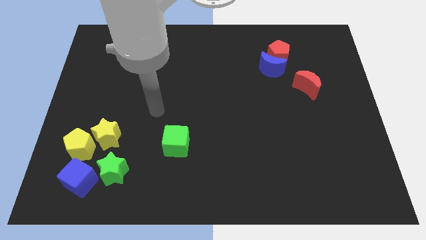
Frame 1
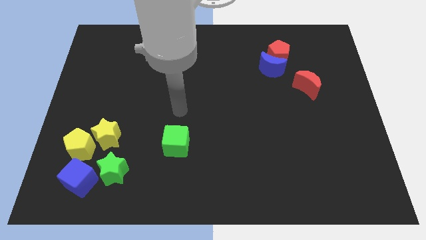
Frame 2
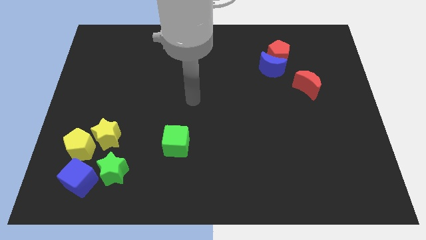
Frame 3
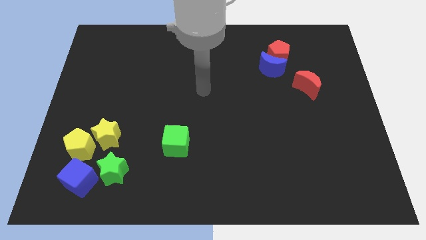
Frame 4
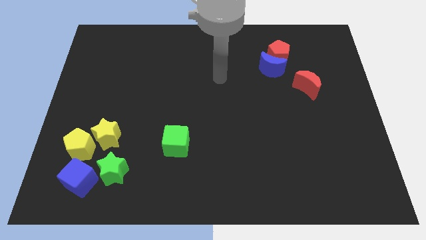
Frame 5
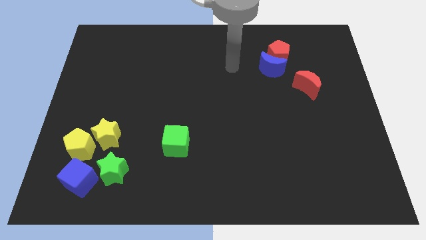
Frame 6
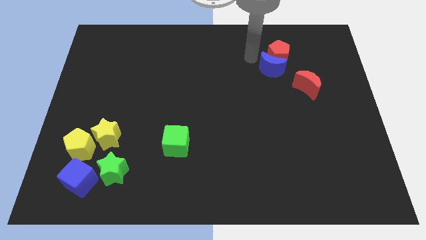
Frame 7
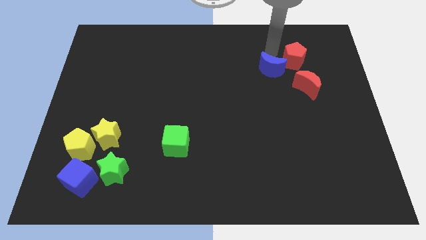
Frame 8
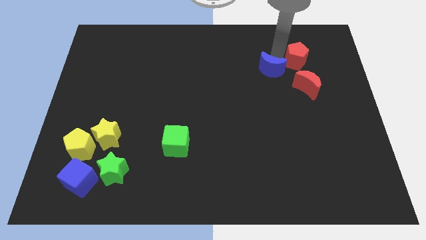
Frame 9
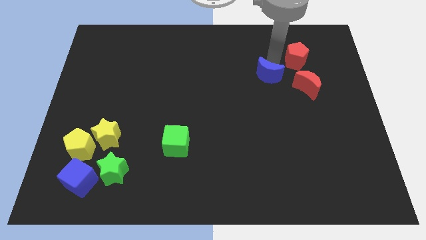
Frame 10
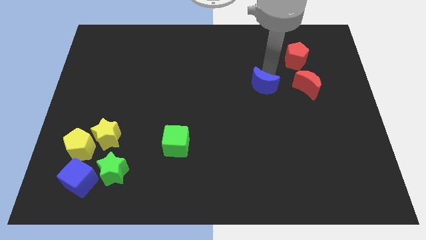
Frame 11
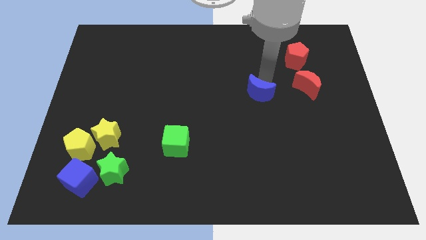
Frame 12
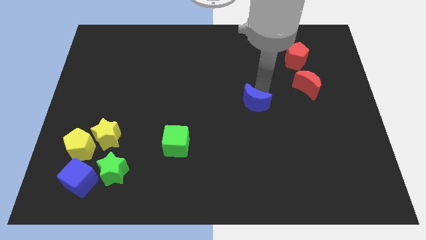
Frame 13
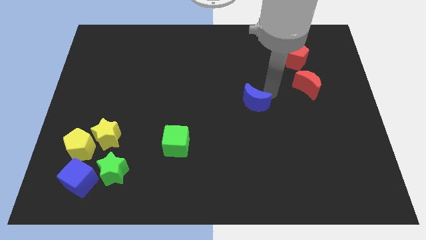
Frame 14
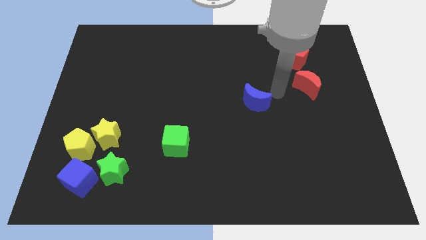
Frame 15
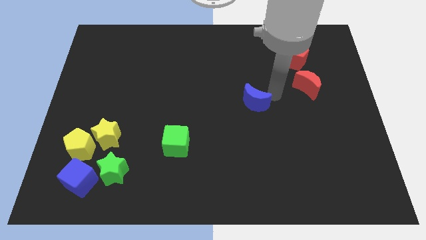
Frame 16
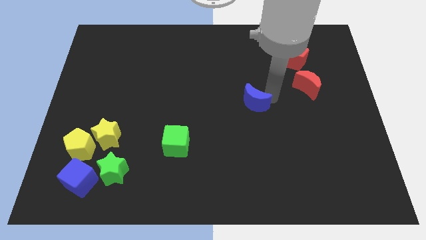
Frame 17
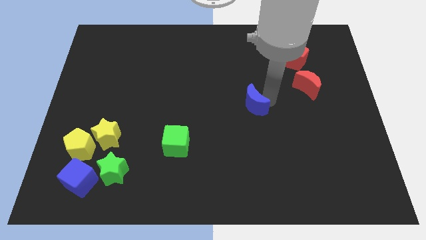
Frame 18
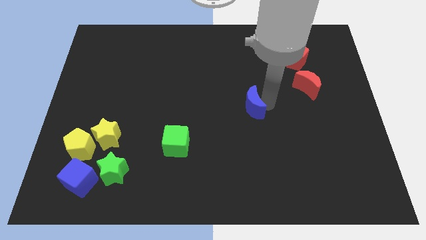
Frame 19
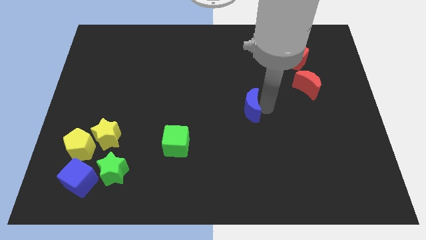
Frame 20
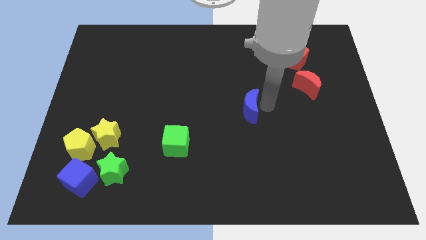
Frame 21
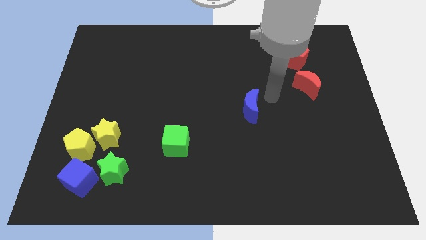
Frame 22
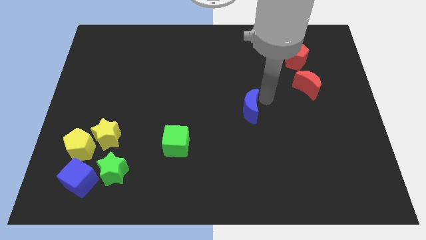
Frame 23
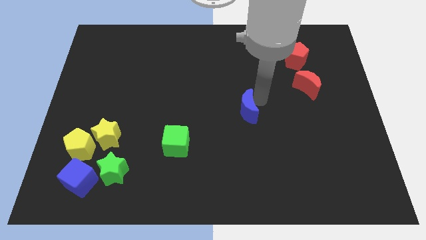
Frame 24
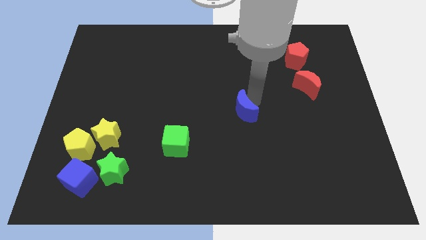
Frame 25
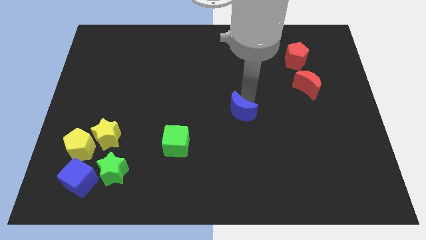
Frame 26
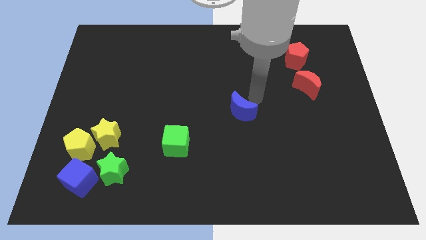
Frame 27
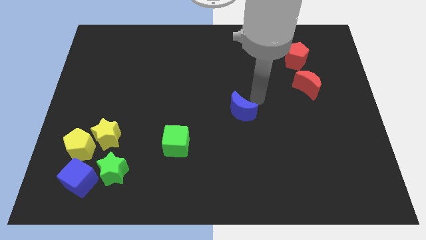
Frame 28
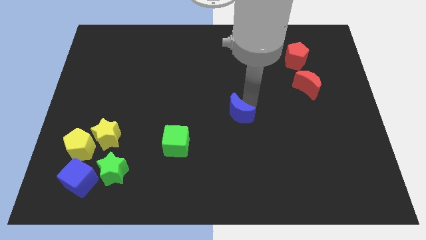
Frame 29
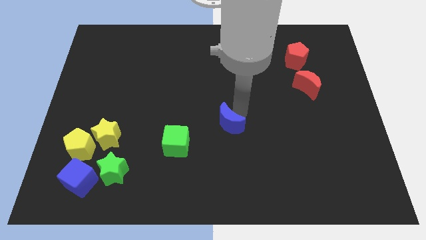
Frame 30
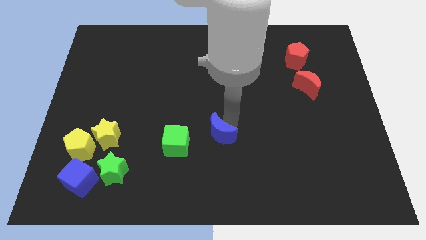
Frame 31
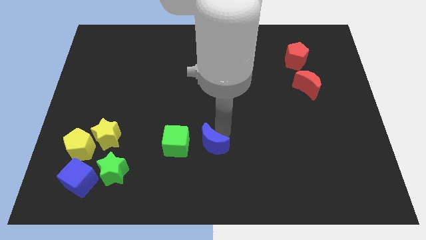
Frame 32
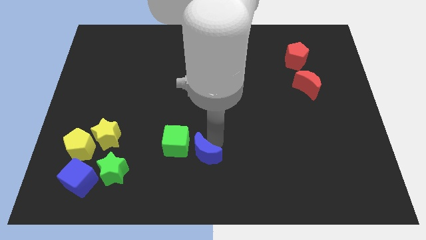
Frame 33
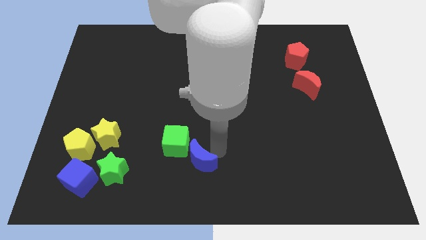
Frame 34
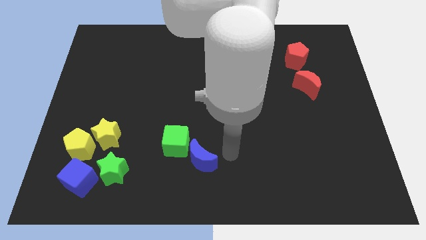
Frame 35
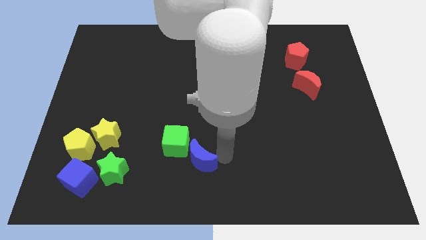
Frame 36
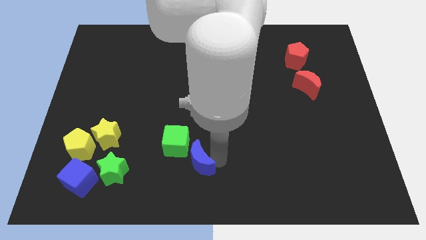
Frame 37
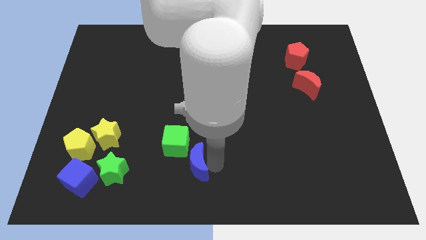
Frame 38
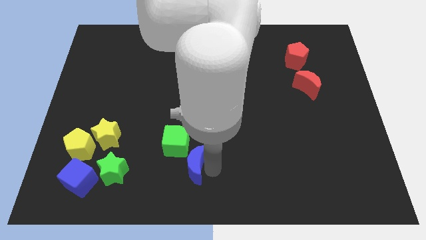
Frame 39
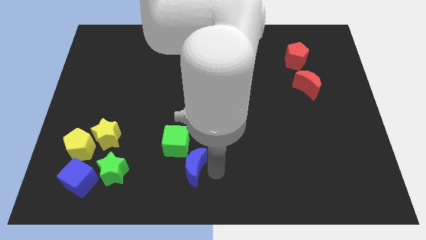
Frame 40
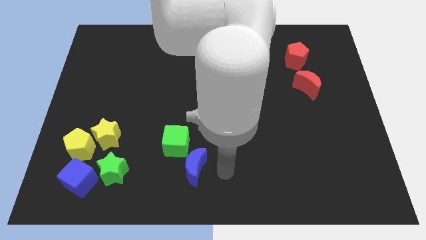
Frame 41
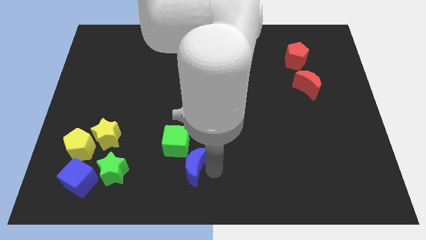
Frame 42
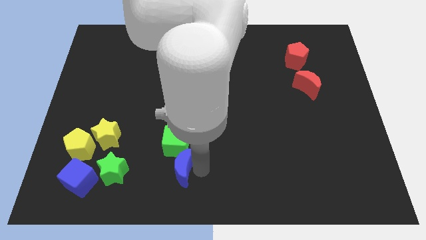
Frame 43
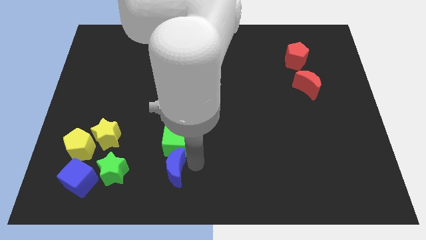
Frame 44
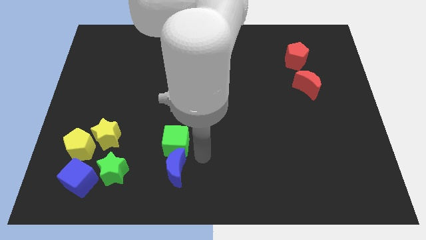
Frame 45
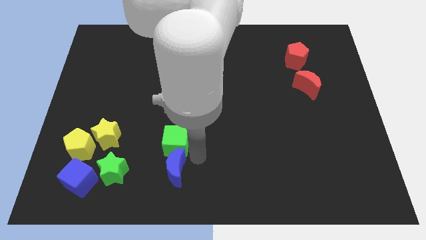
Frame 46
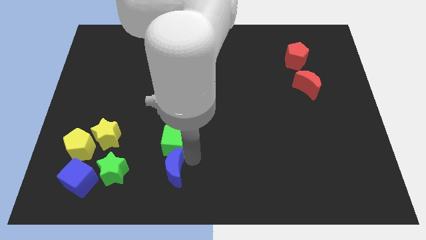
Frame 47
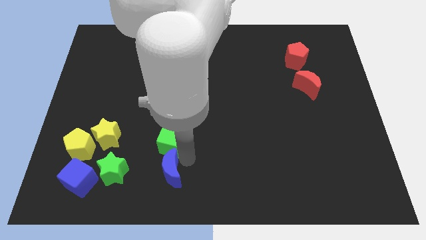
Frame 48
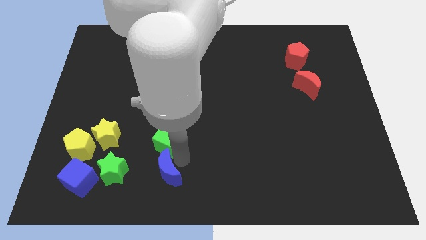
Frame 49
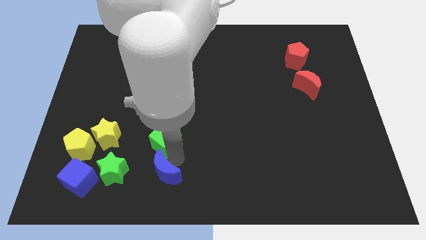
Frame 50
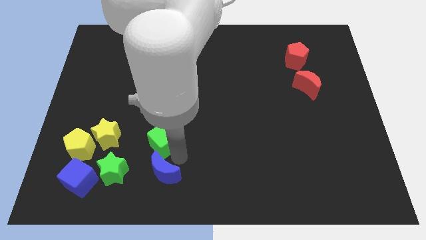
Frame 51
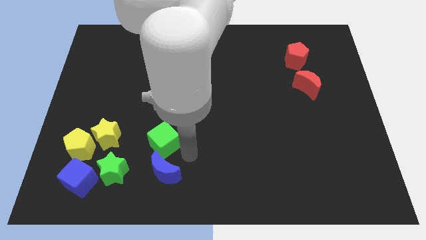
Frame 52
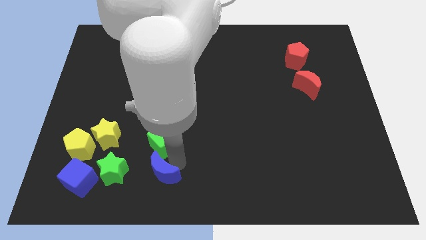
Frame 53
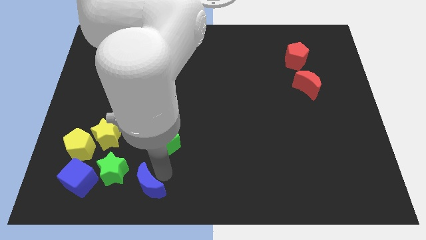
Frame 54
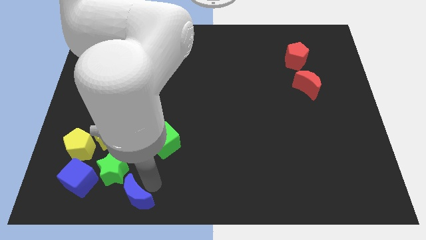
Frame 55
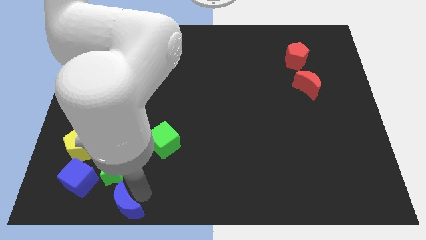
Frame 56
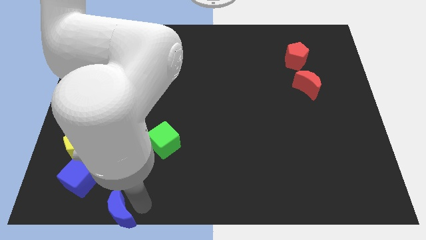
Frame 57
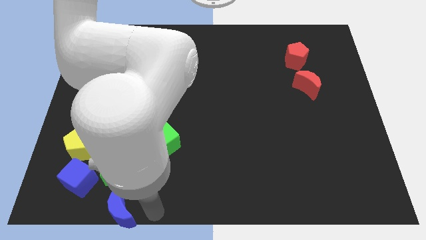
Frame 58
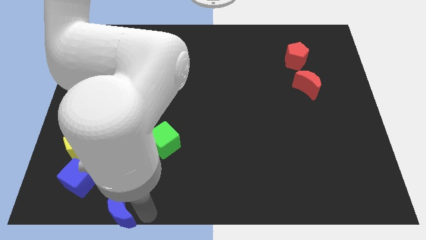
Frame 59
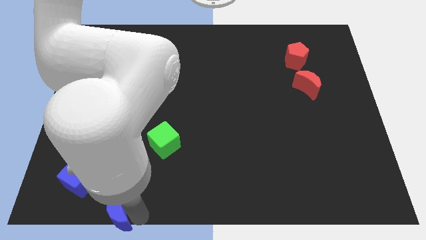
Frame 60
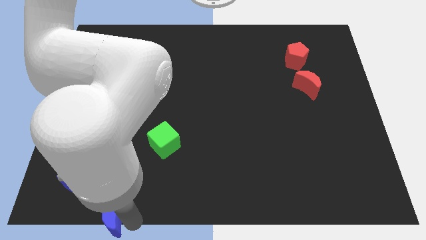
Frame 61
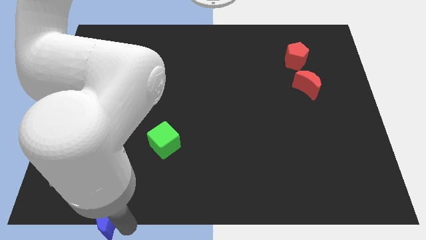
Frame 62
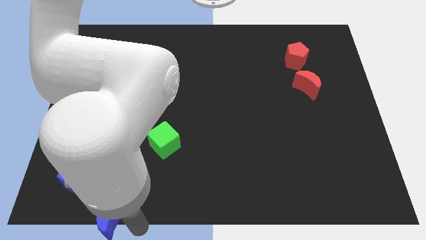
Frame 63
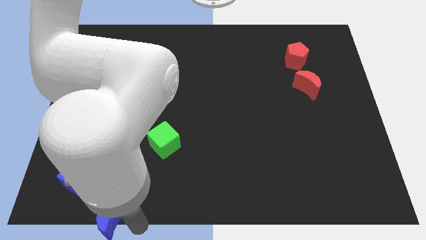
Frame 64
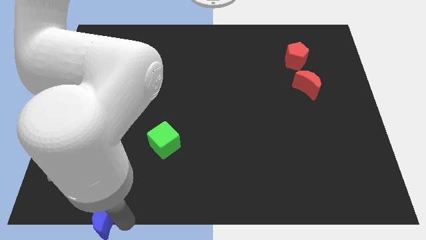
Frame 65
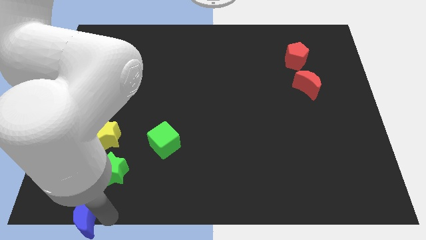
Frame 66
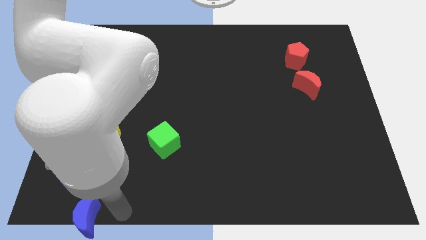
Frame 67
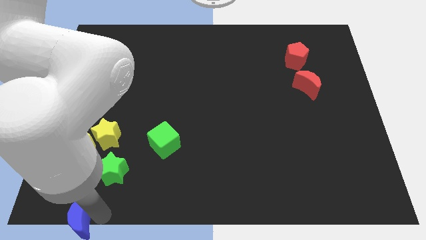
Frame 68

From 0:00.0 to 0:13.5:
move the blue moon to the bottom left of the board
